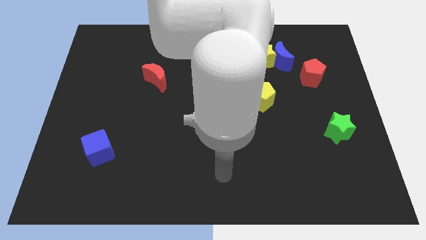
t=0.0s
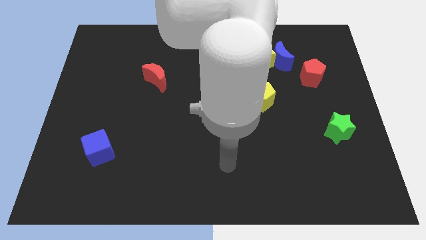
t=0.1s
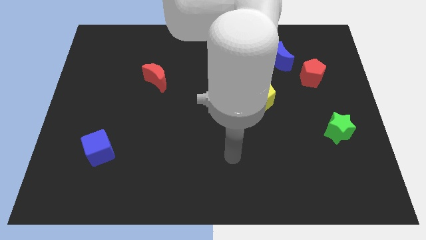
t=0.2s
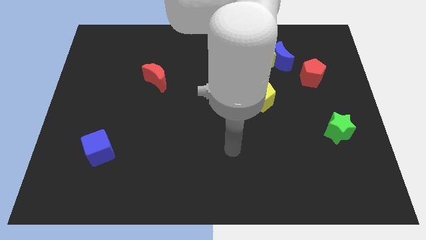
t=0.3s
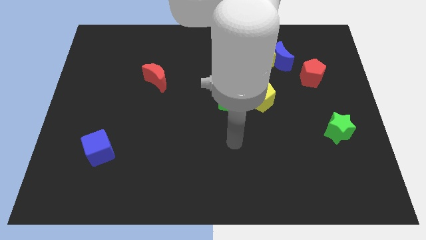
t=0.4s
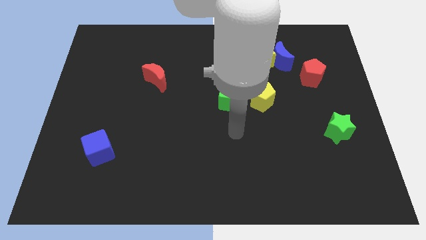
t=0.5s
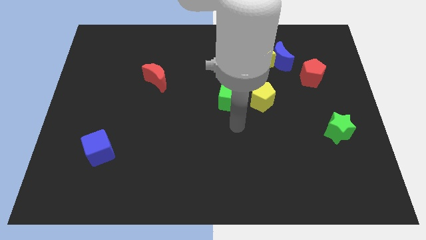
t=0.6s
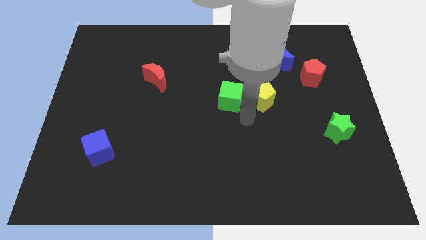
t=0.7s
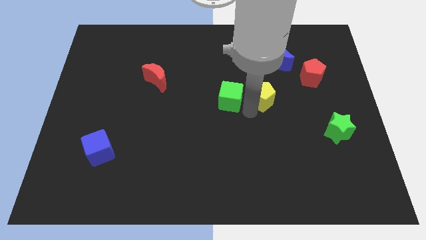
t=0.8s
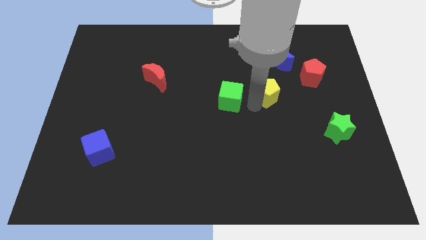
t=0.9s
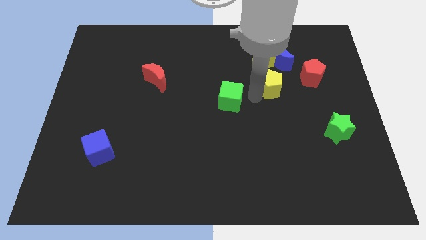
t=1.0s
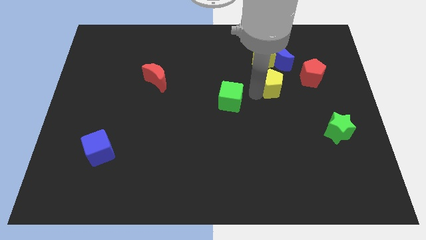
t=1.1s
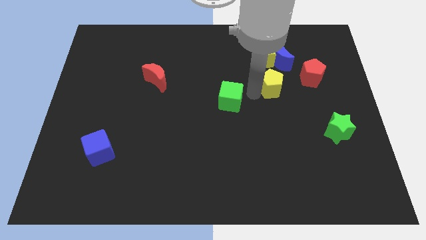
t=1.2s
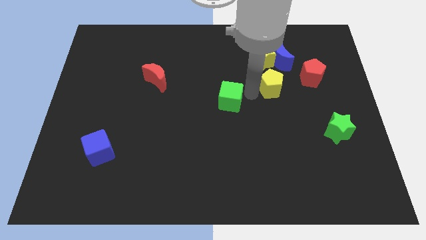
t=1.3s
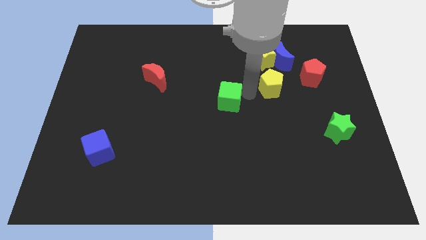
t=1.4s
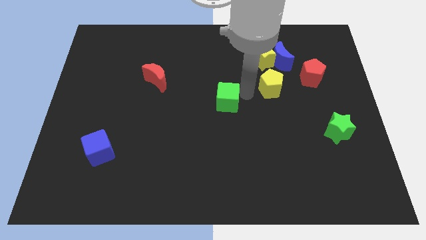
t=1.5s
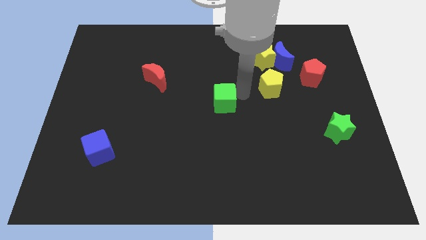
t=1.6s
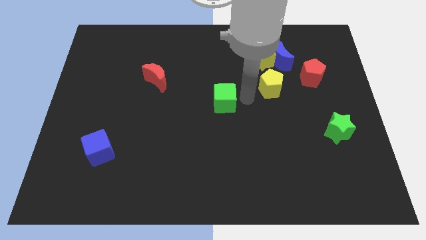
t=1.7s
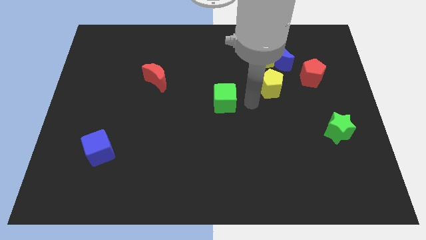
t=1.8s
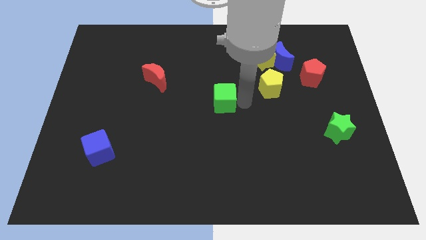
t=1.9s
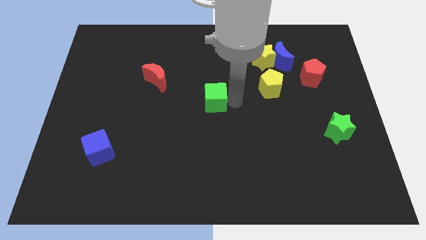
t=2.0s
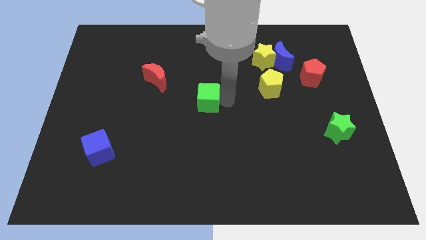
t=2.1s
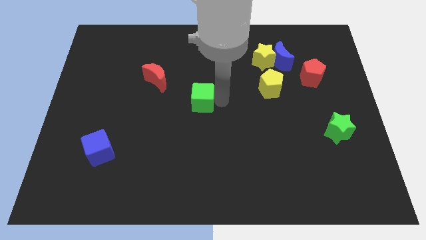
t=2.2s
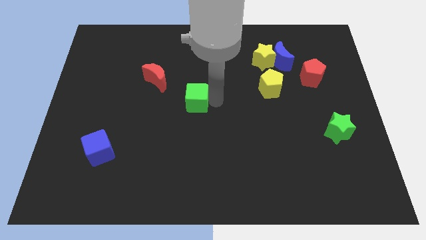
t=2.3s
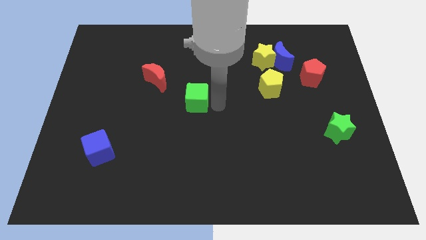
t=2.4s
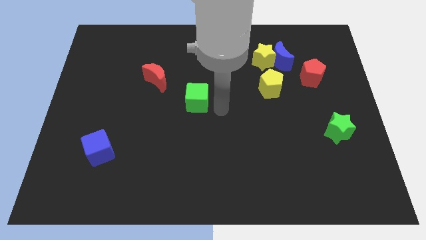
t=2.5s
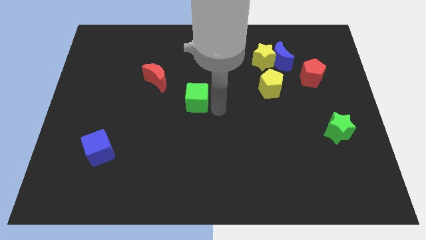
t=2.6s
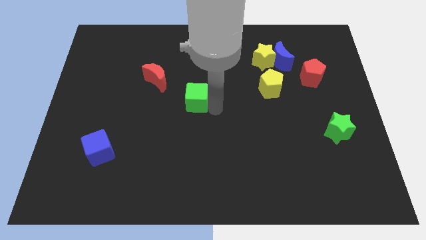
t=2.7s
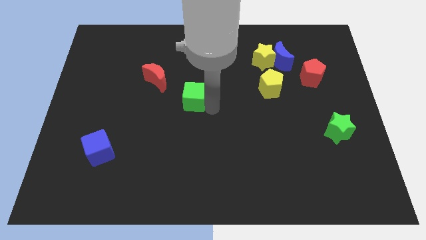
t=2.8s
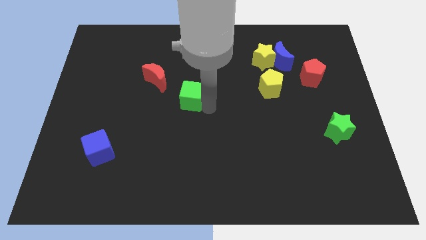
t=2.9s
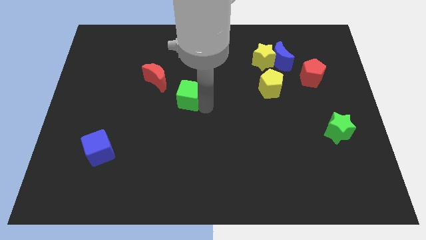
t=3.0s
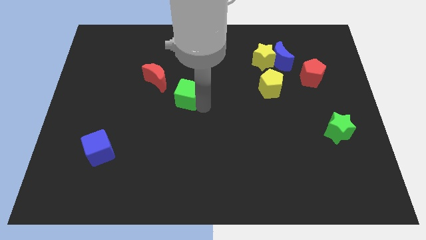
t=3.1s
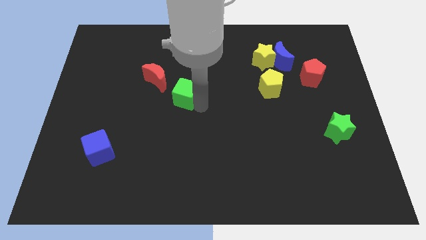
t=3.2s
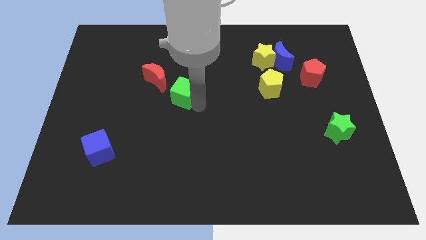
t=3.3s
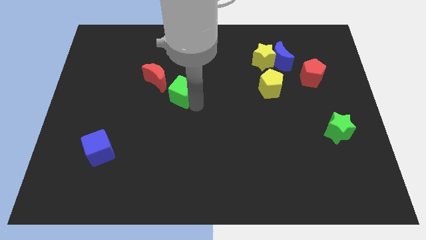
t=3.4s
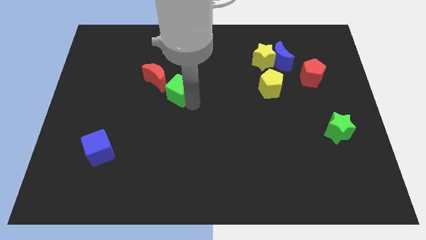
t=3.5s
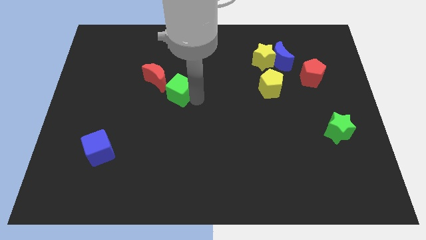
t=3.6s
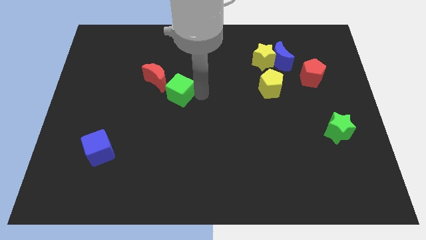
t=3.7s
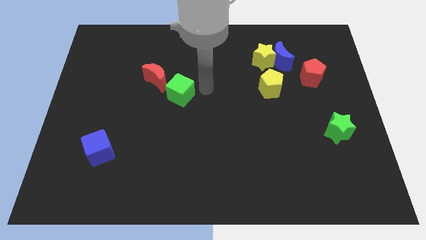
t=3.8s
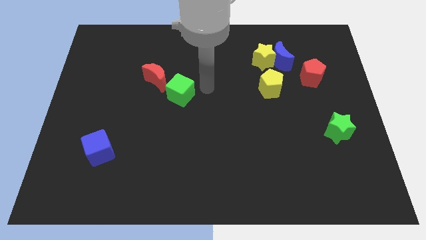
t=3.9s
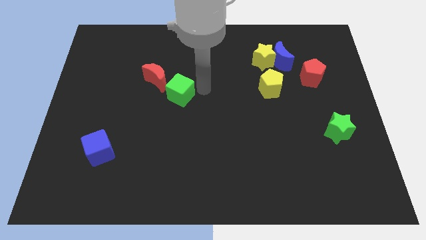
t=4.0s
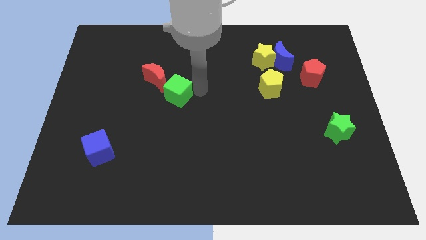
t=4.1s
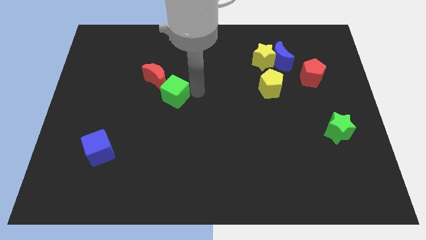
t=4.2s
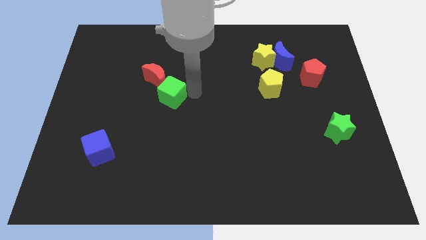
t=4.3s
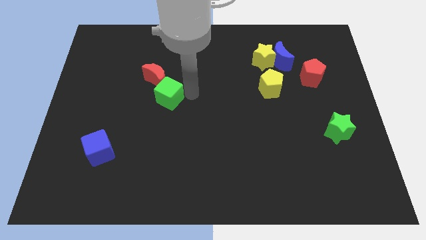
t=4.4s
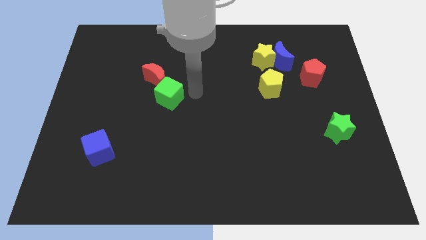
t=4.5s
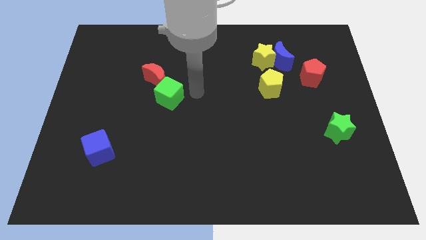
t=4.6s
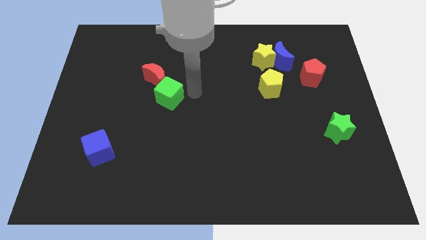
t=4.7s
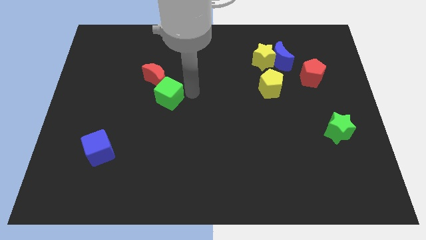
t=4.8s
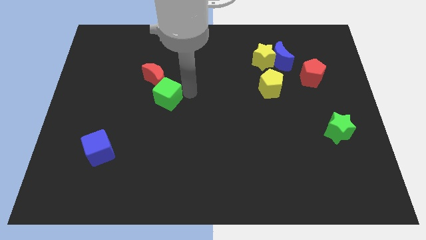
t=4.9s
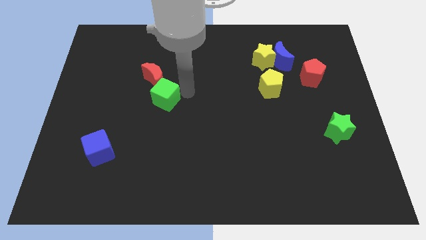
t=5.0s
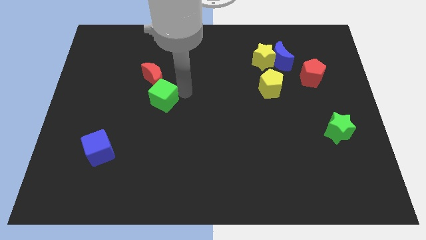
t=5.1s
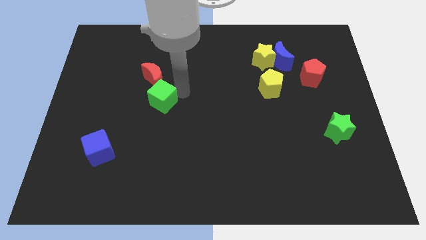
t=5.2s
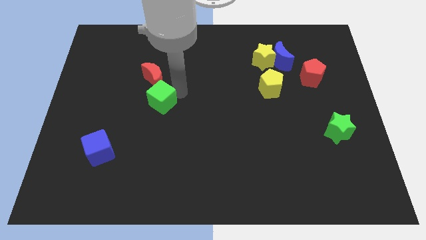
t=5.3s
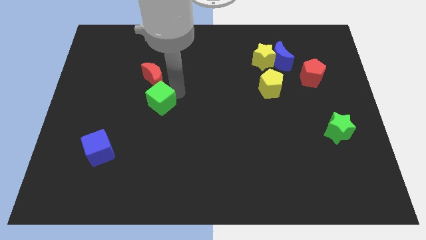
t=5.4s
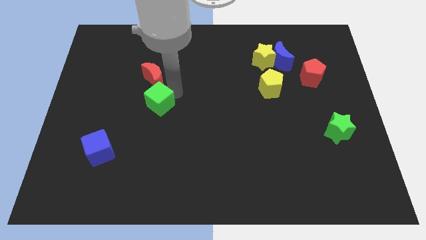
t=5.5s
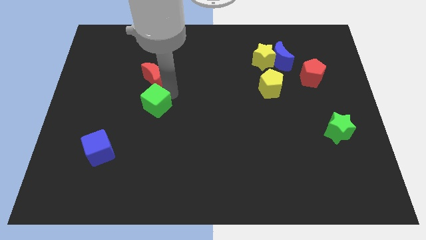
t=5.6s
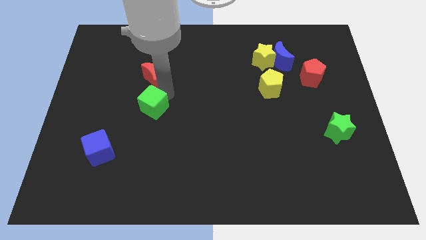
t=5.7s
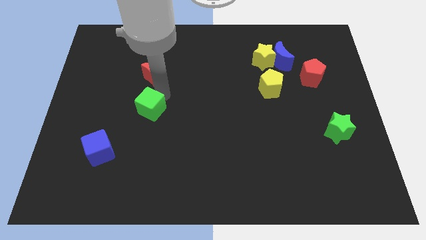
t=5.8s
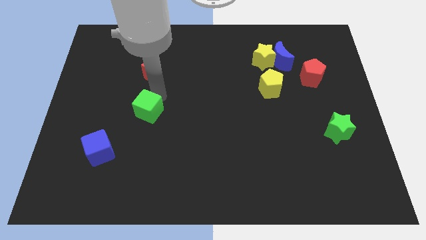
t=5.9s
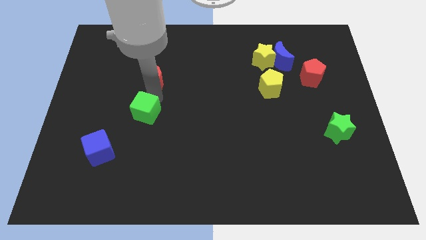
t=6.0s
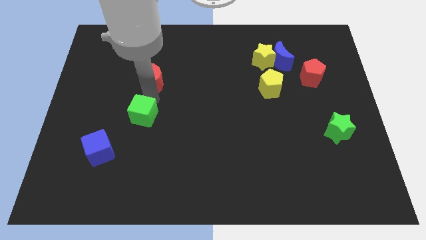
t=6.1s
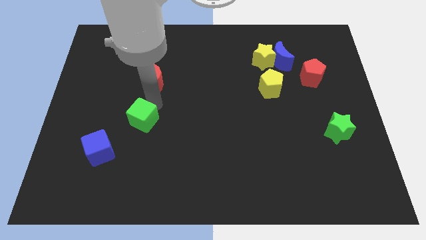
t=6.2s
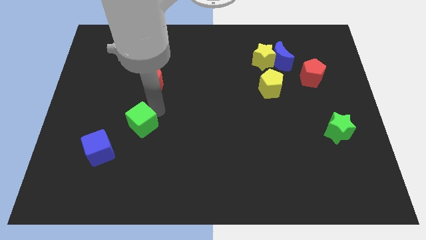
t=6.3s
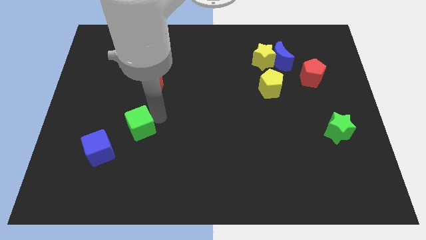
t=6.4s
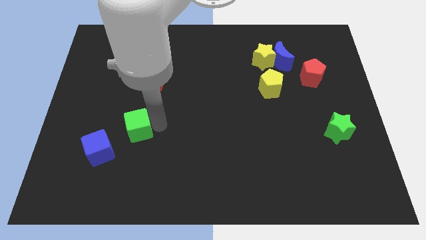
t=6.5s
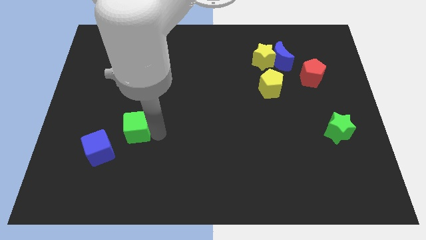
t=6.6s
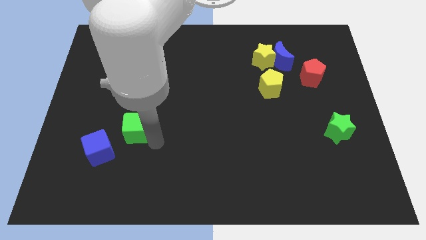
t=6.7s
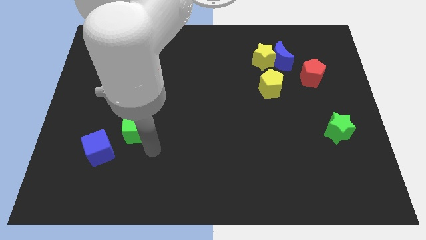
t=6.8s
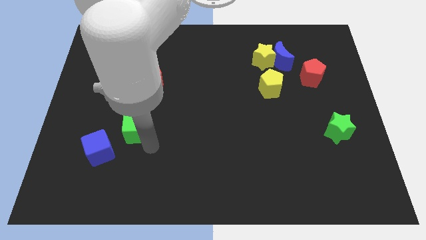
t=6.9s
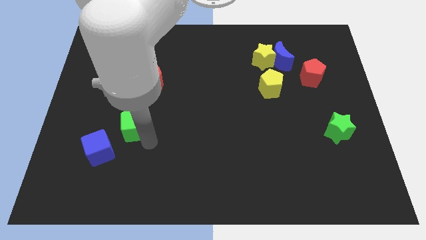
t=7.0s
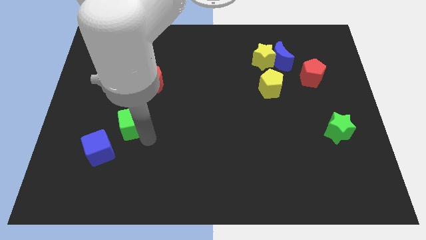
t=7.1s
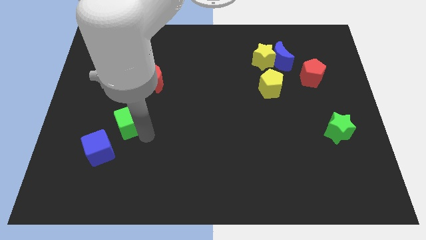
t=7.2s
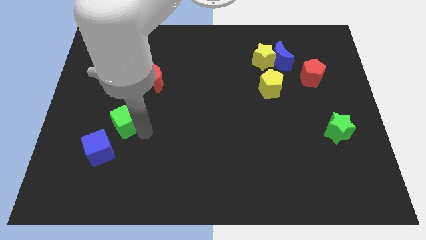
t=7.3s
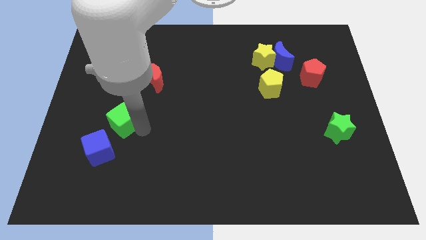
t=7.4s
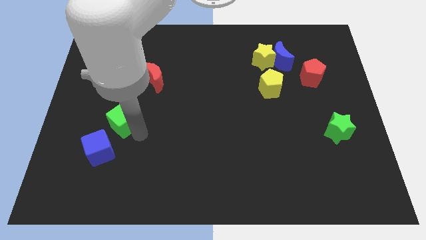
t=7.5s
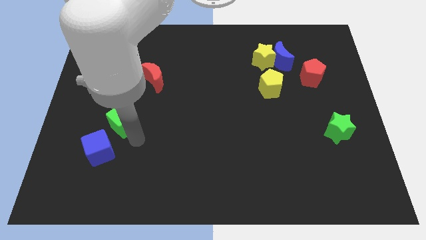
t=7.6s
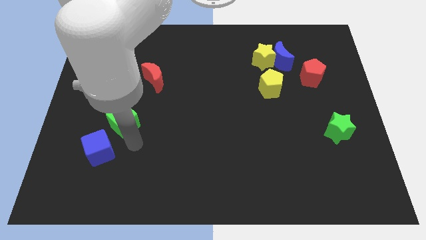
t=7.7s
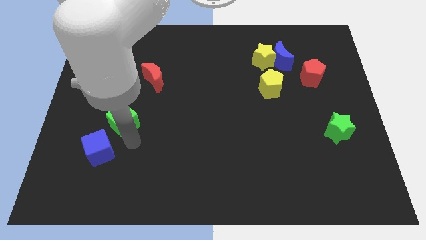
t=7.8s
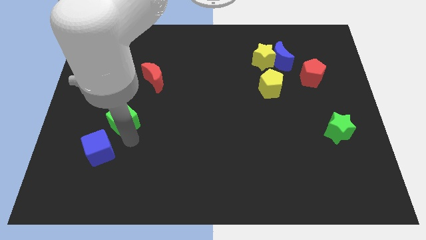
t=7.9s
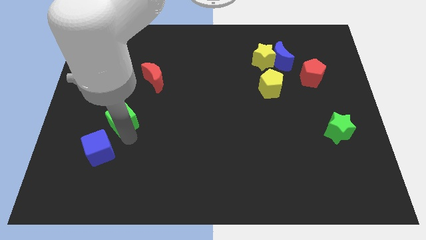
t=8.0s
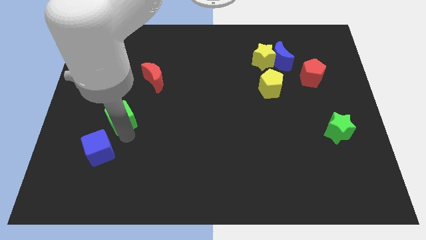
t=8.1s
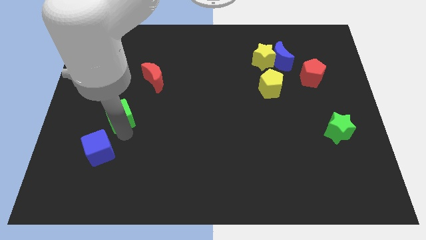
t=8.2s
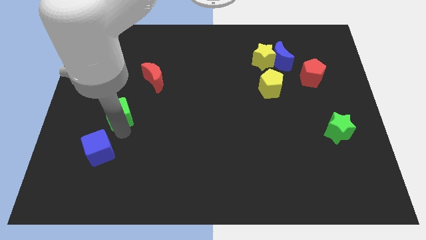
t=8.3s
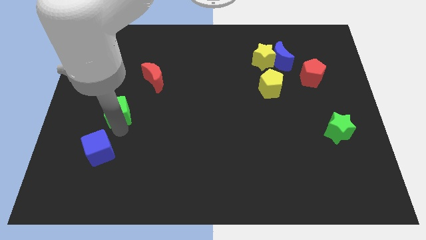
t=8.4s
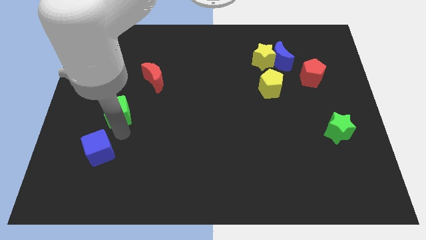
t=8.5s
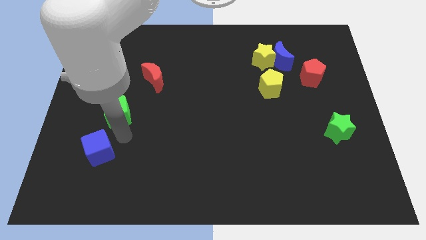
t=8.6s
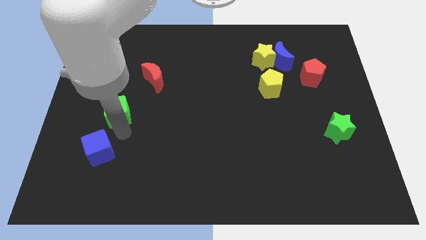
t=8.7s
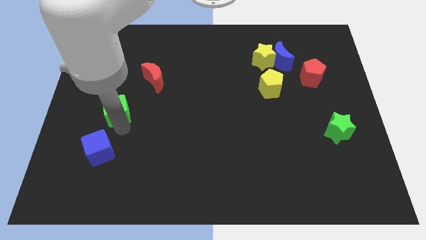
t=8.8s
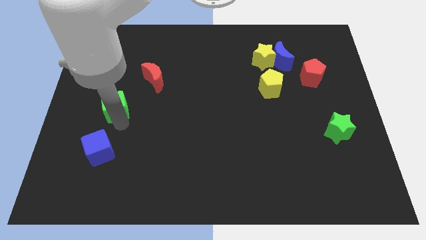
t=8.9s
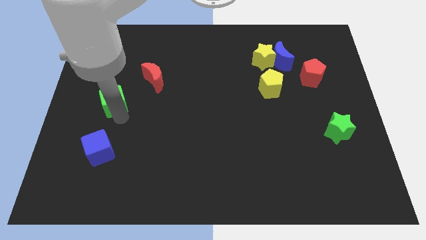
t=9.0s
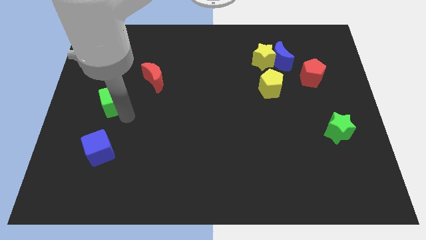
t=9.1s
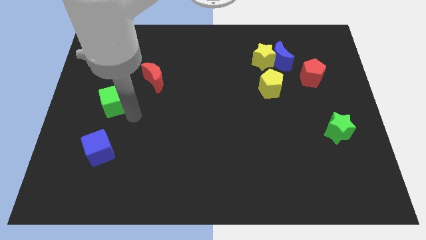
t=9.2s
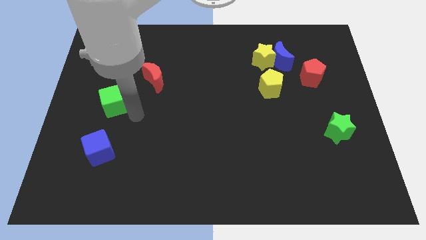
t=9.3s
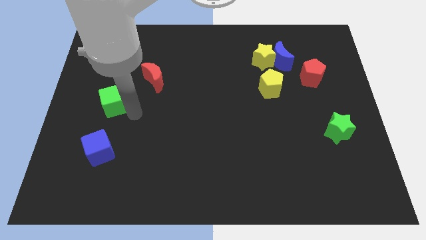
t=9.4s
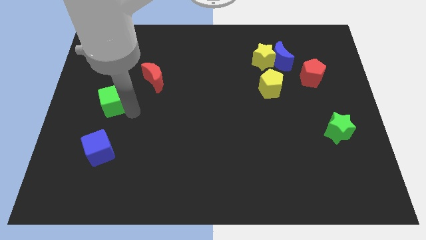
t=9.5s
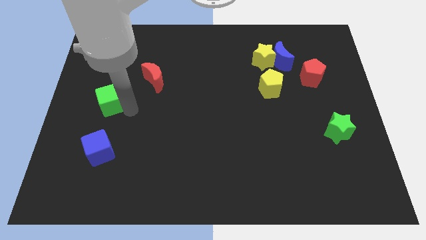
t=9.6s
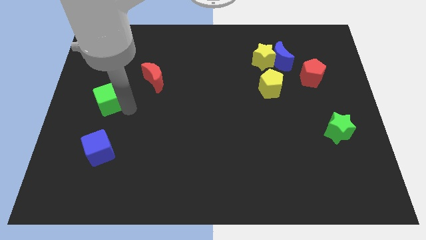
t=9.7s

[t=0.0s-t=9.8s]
slide the green cube to the left side
